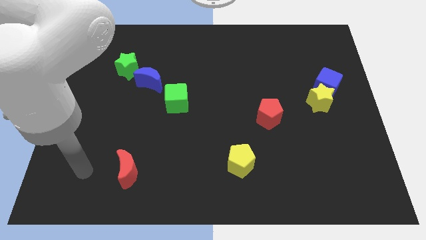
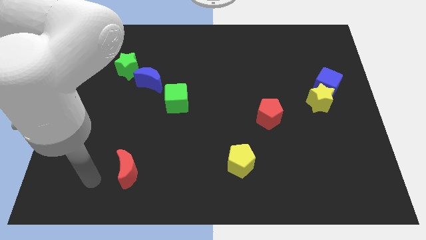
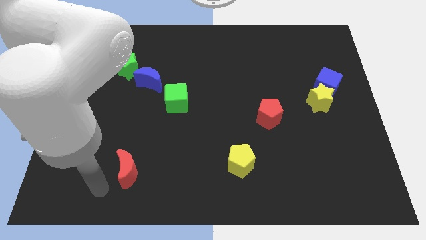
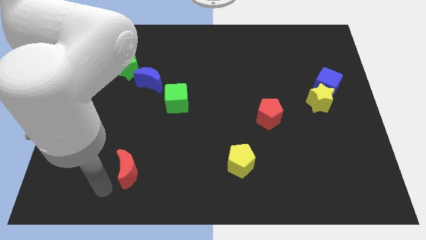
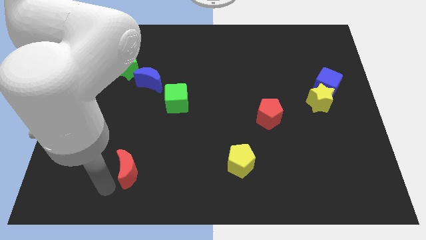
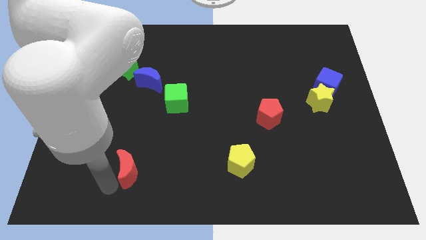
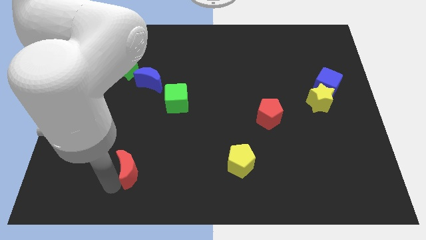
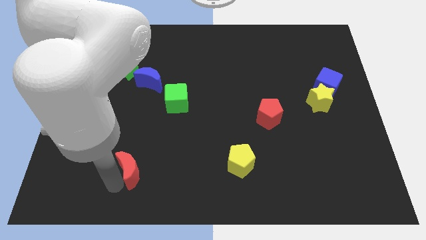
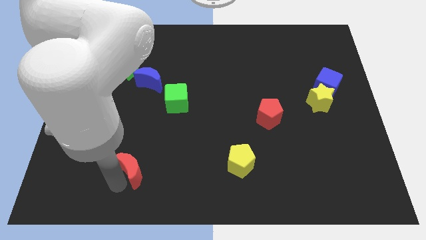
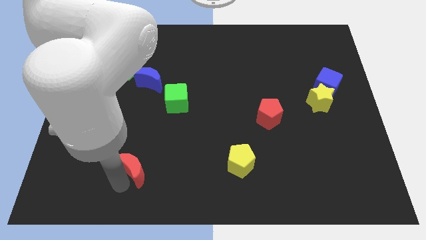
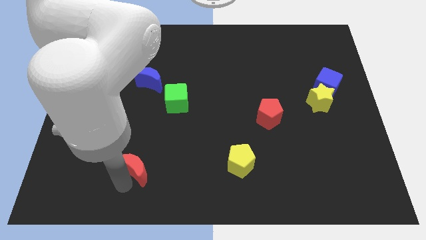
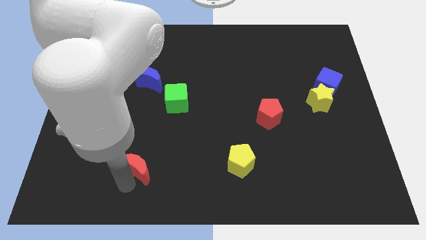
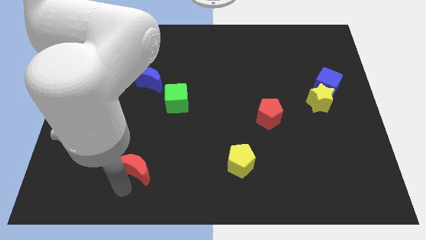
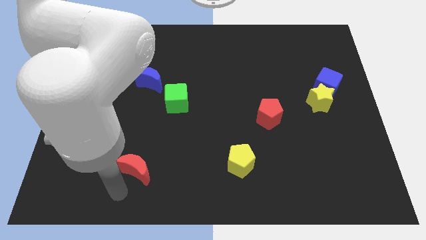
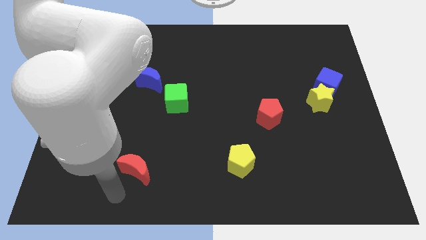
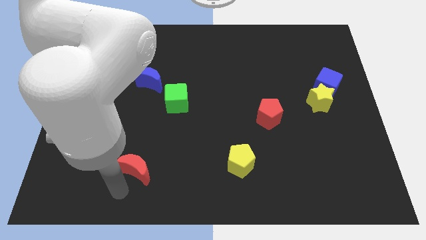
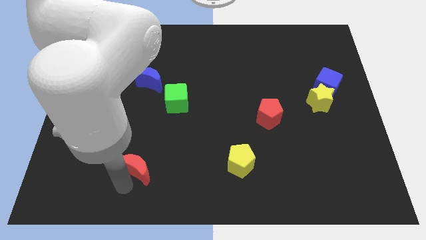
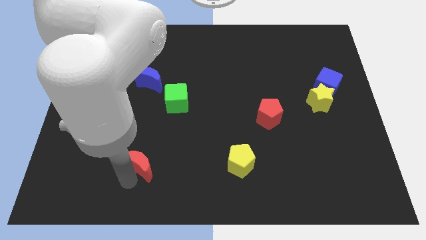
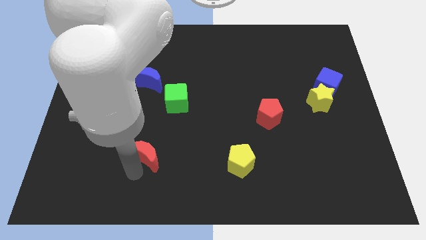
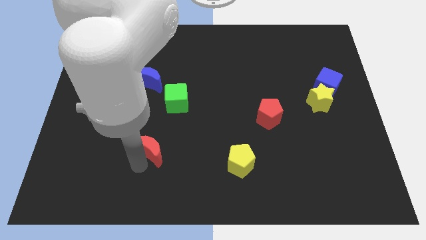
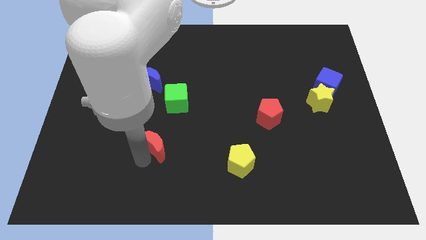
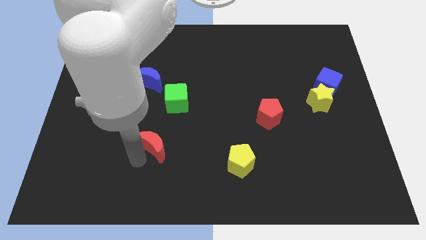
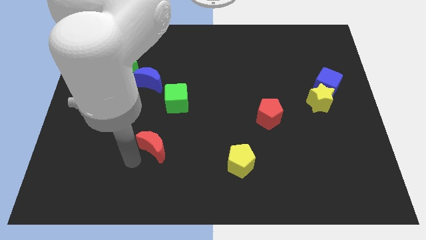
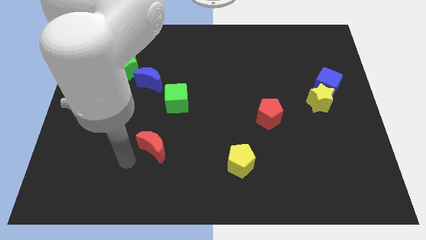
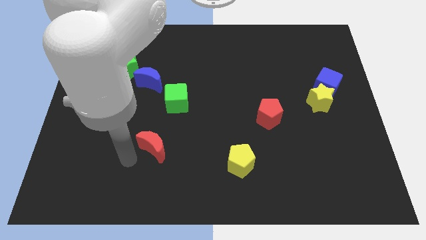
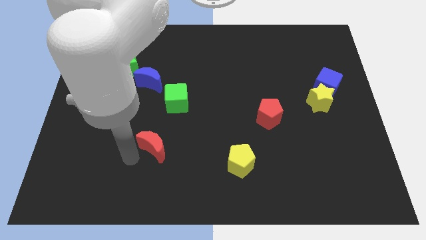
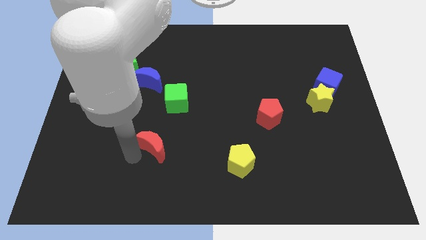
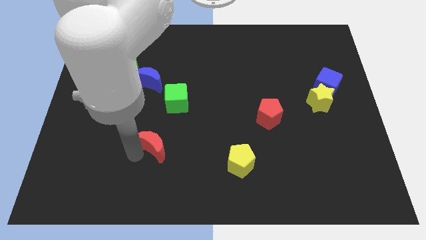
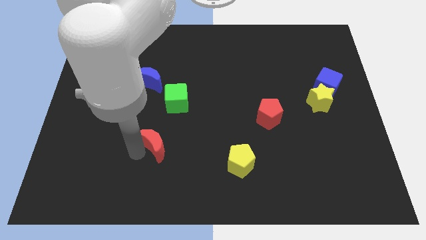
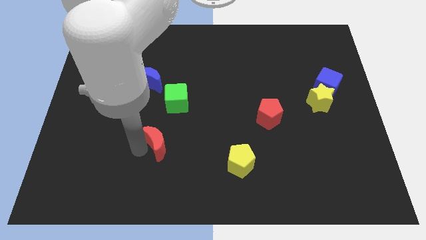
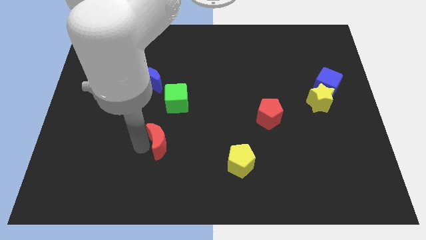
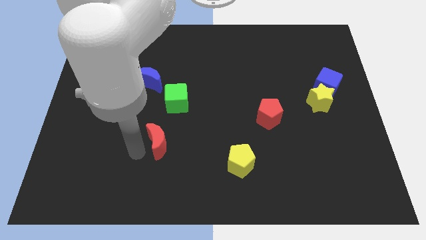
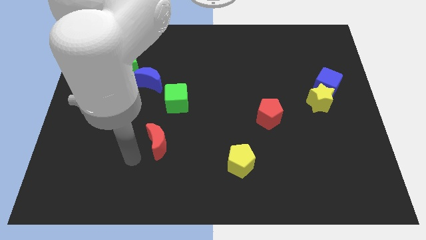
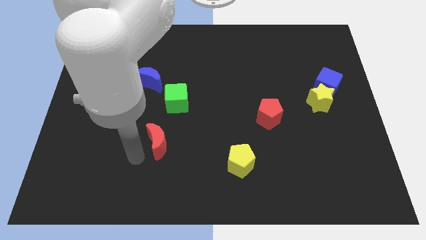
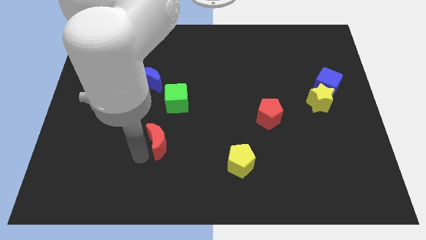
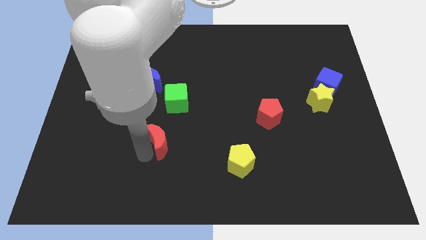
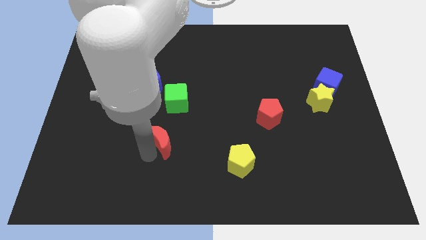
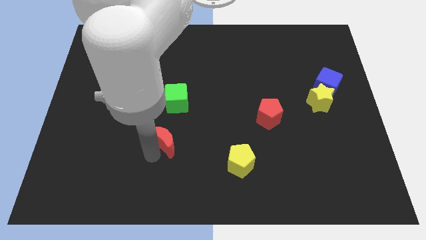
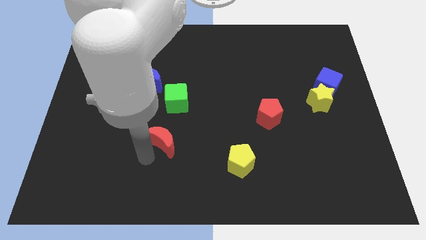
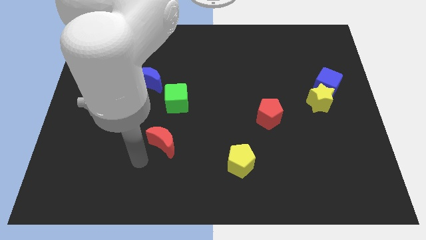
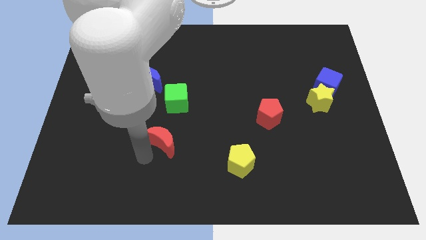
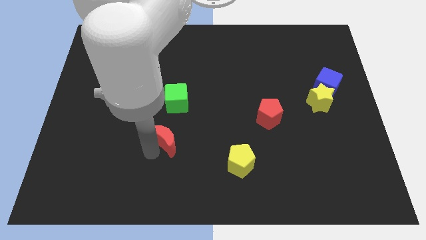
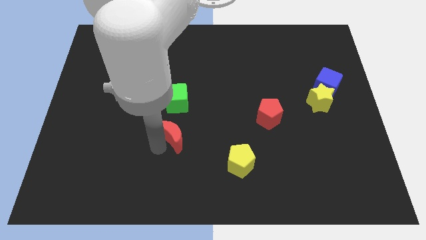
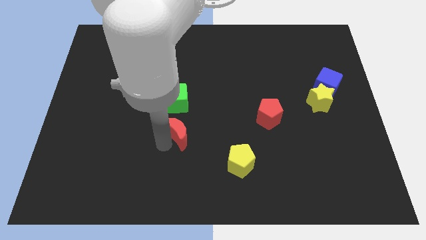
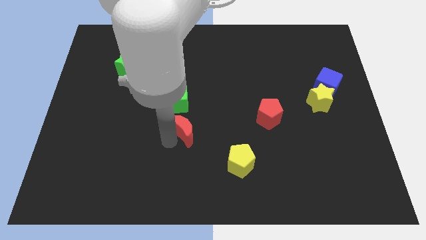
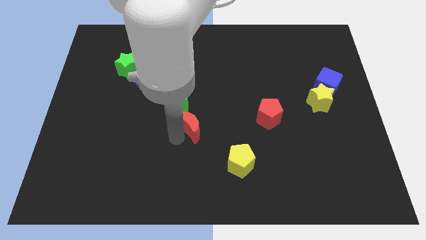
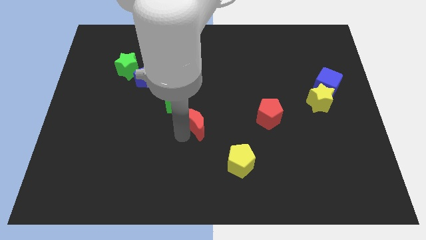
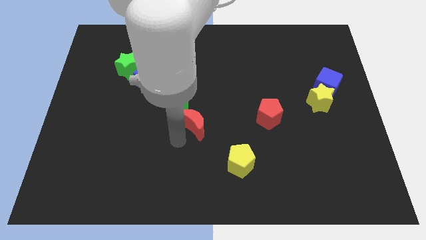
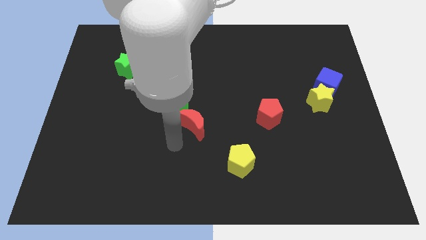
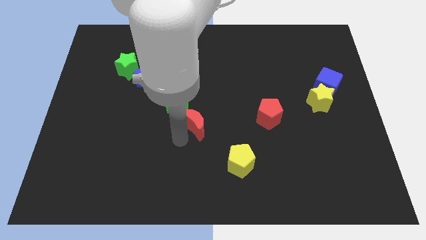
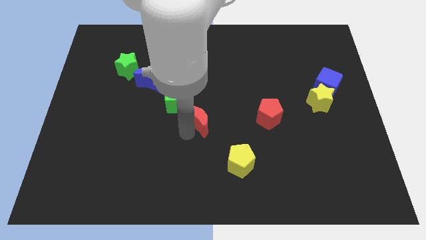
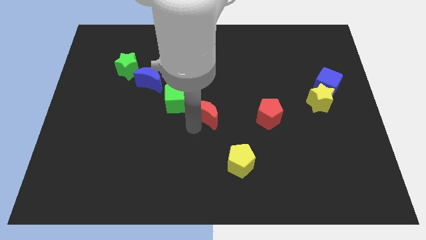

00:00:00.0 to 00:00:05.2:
push the red moon right of the green cube

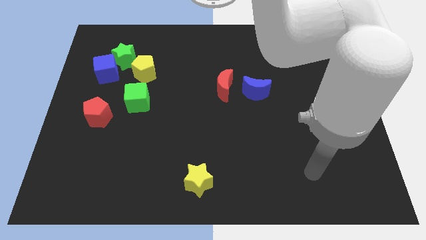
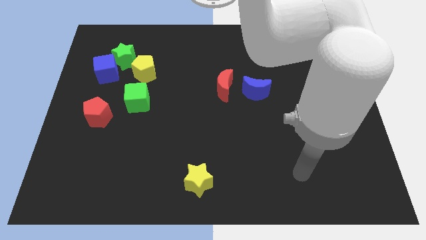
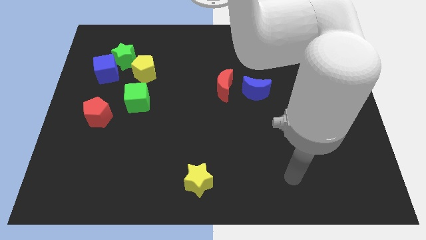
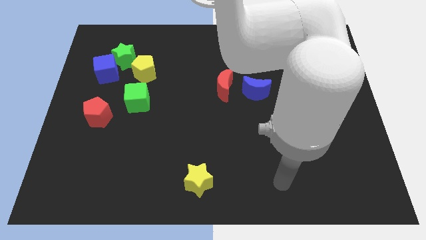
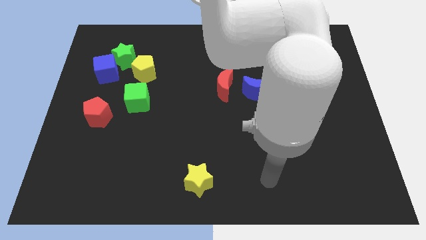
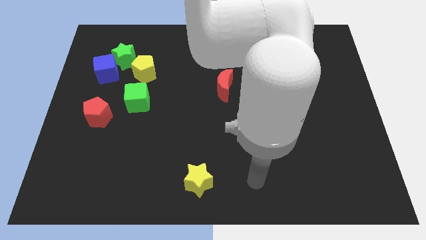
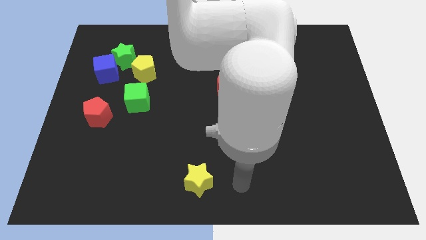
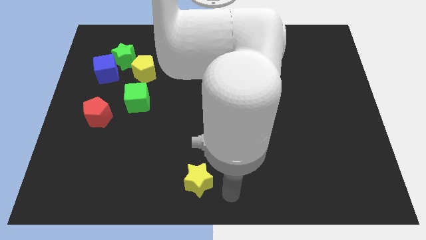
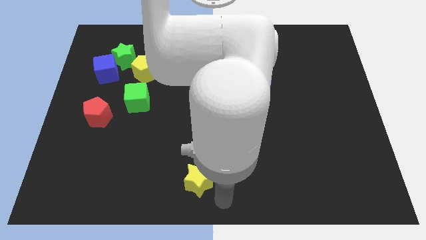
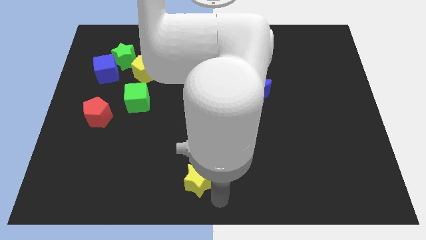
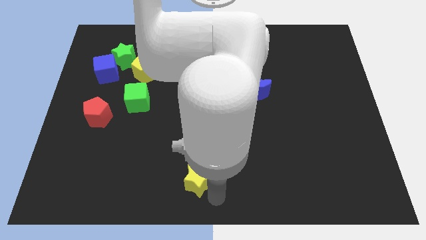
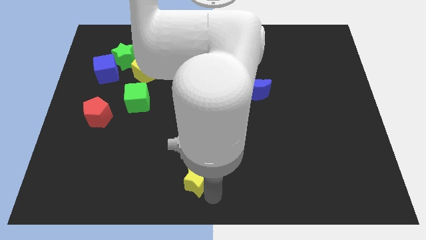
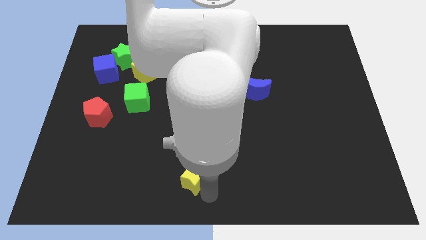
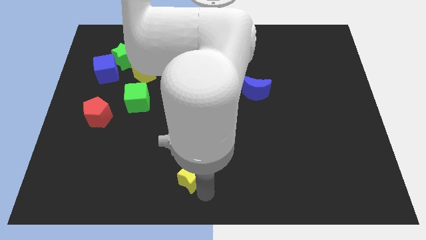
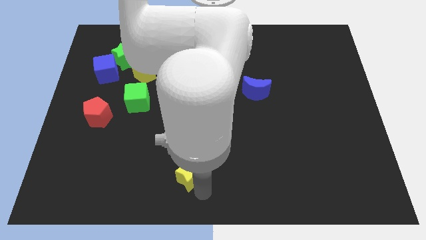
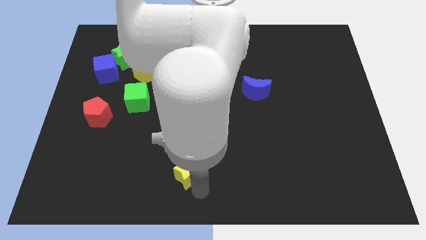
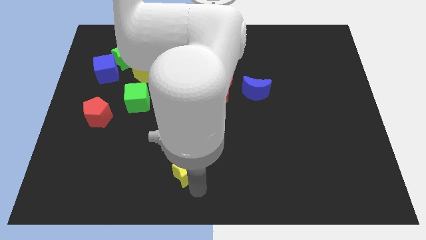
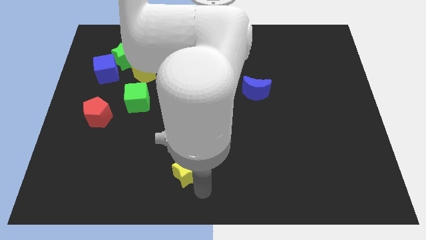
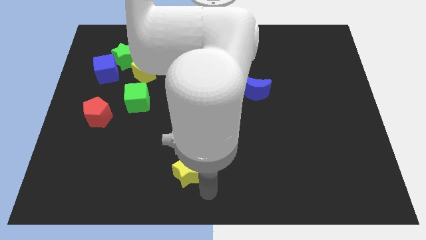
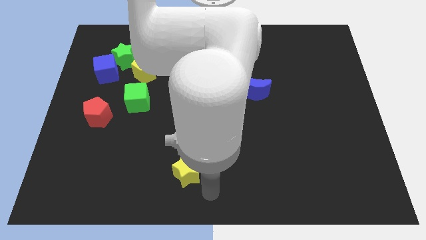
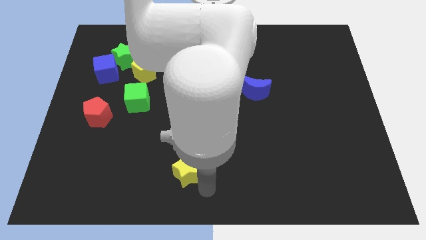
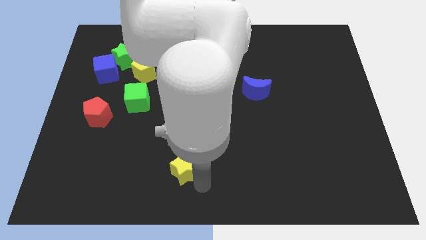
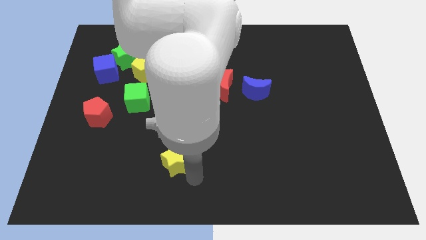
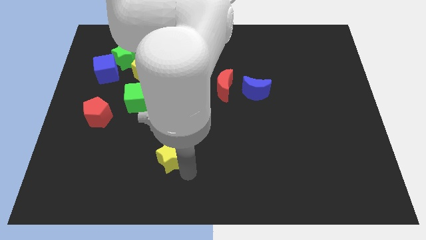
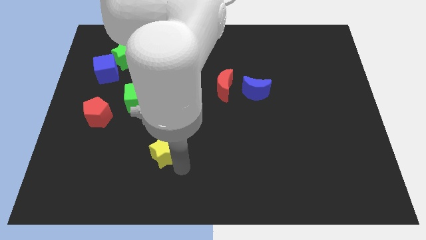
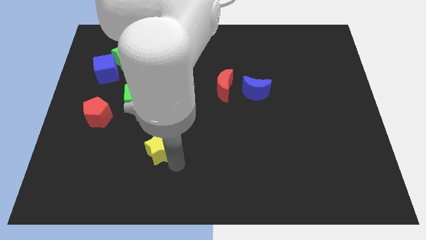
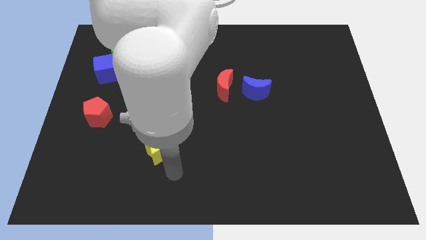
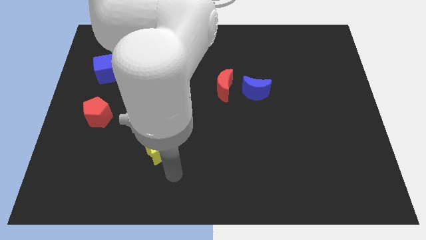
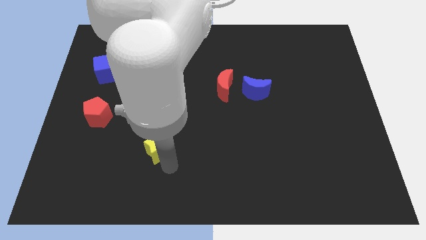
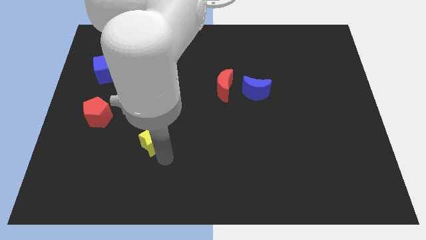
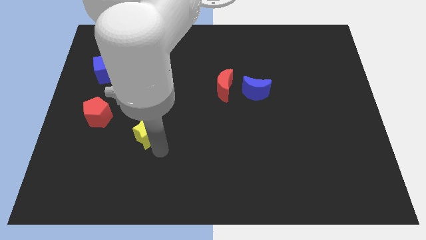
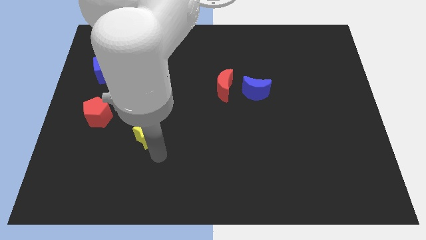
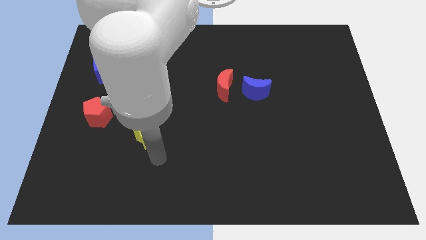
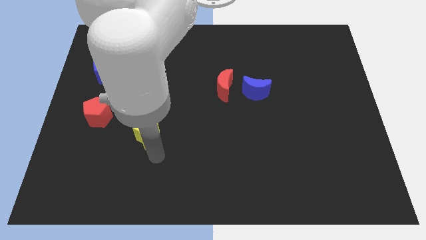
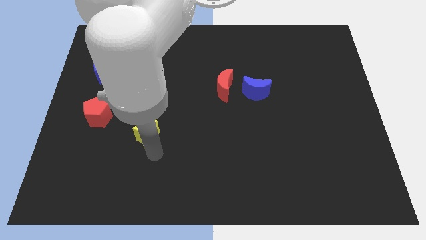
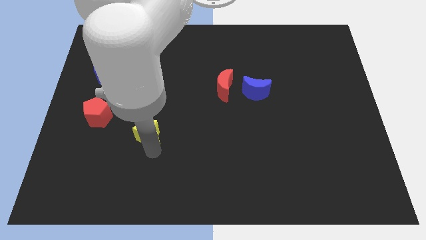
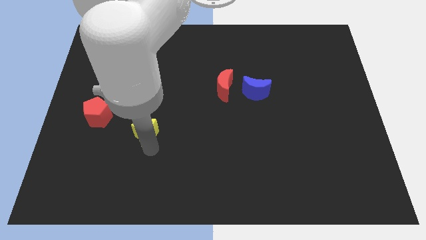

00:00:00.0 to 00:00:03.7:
push the yellow star just right of the red pentagon
